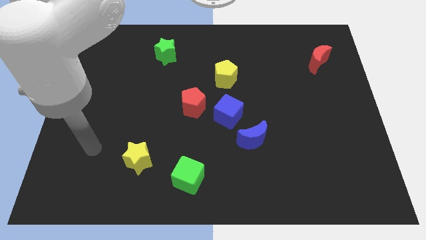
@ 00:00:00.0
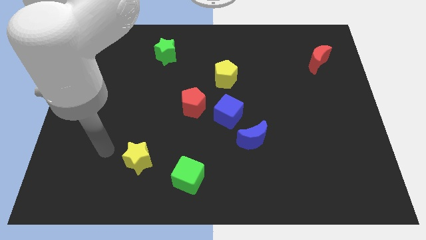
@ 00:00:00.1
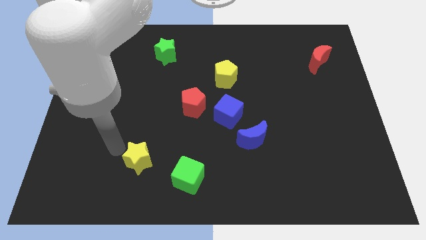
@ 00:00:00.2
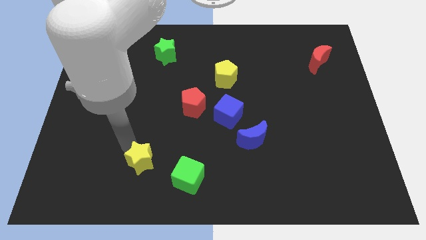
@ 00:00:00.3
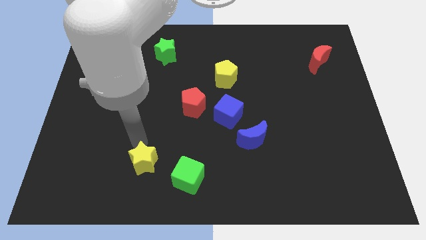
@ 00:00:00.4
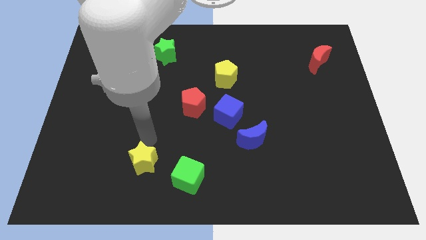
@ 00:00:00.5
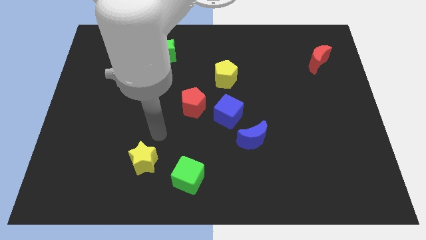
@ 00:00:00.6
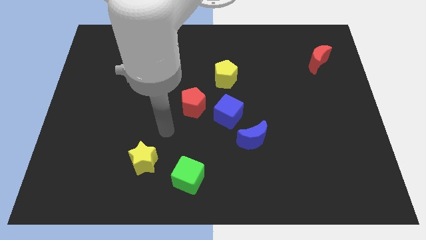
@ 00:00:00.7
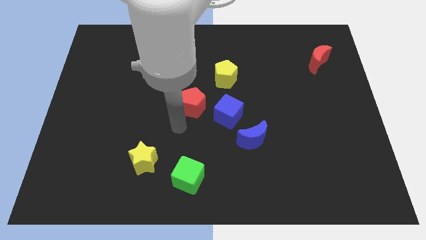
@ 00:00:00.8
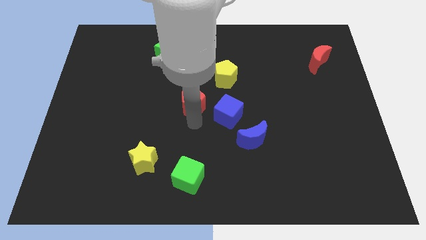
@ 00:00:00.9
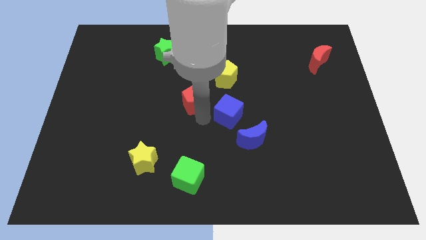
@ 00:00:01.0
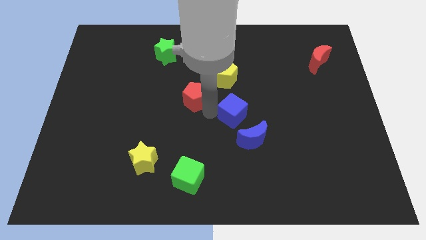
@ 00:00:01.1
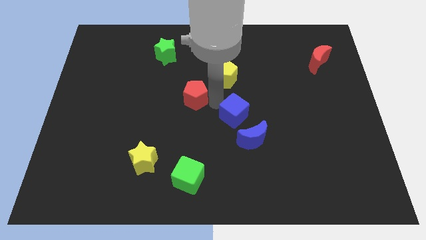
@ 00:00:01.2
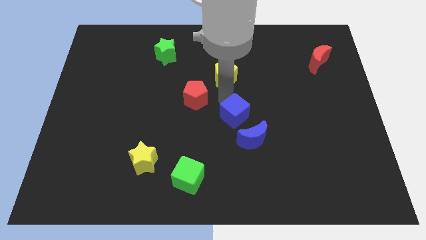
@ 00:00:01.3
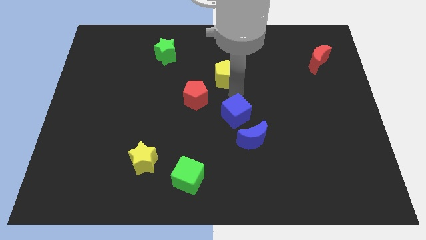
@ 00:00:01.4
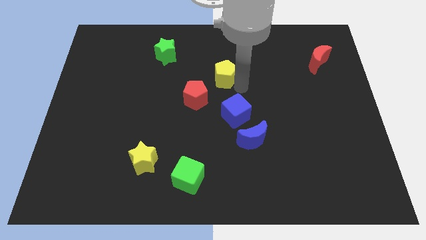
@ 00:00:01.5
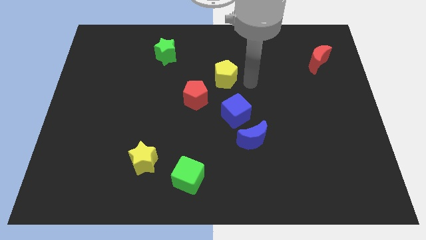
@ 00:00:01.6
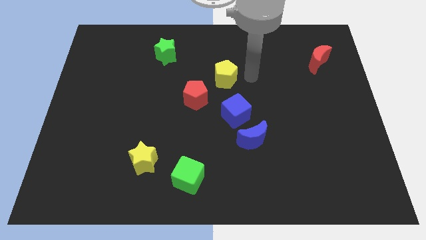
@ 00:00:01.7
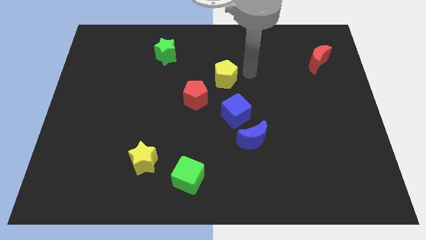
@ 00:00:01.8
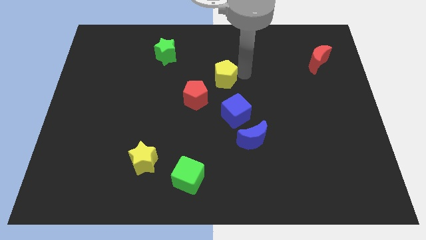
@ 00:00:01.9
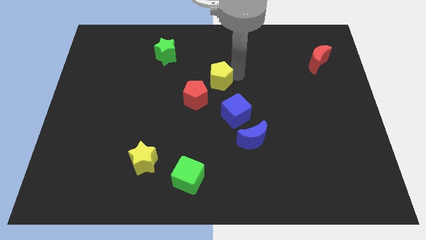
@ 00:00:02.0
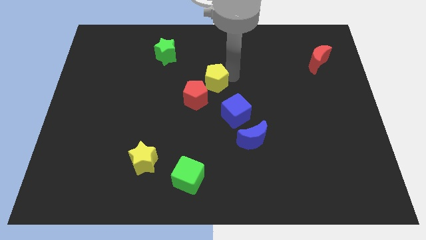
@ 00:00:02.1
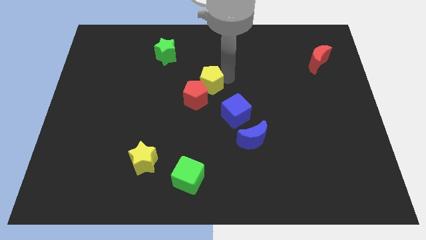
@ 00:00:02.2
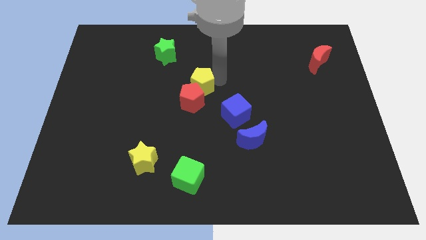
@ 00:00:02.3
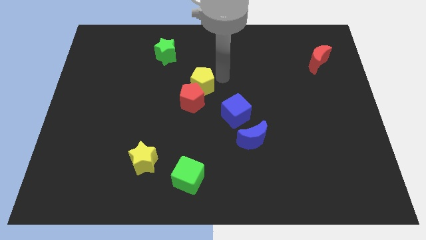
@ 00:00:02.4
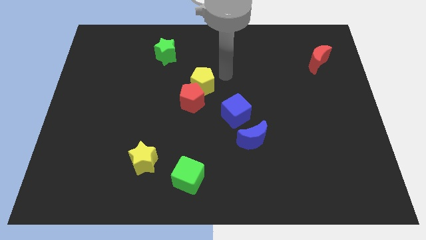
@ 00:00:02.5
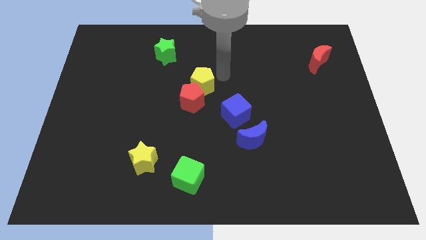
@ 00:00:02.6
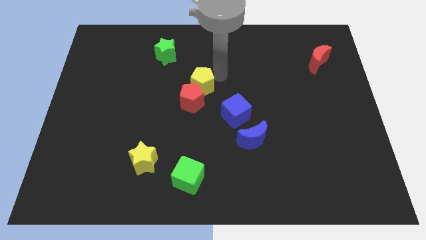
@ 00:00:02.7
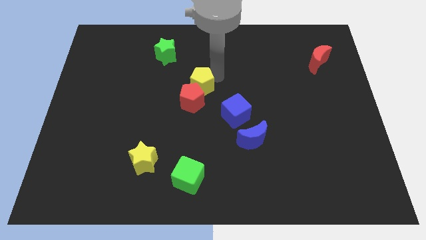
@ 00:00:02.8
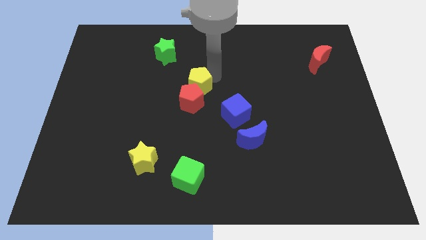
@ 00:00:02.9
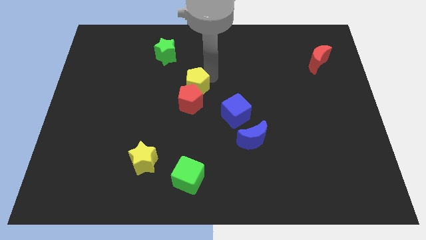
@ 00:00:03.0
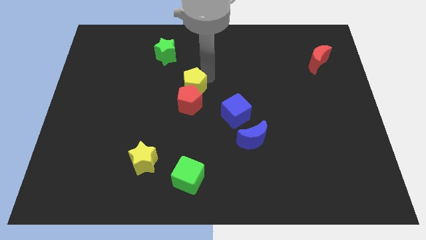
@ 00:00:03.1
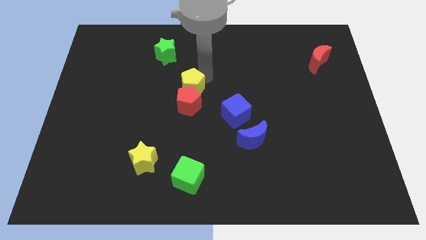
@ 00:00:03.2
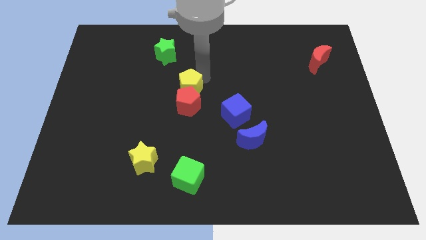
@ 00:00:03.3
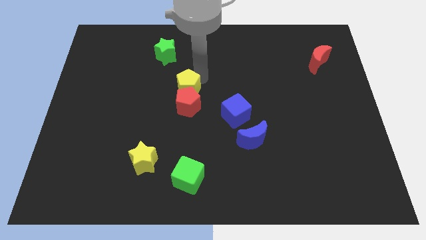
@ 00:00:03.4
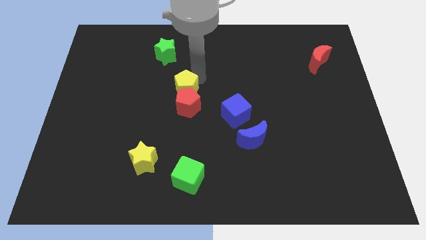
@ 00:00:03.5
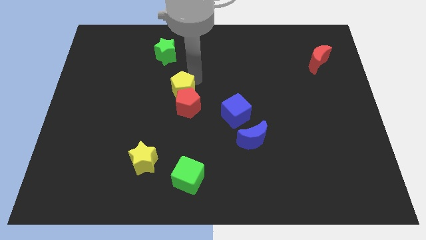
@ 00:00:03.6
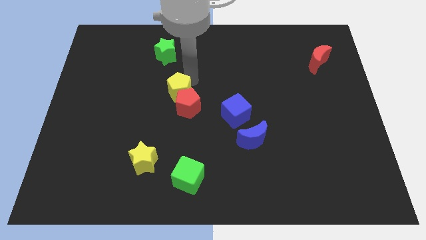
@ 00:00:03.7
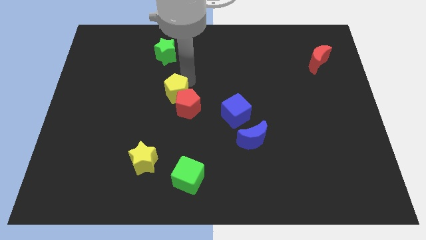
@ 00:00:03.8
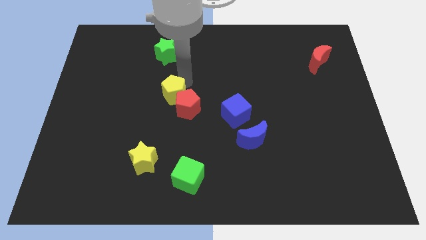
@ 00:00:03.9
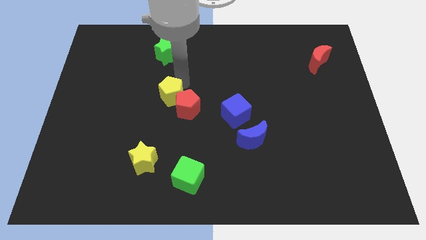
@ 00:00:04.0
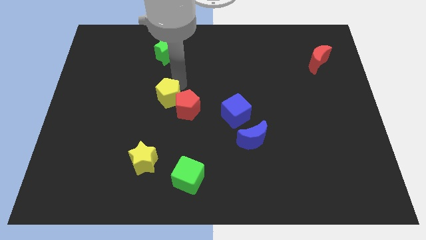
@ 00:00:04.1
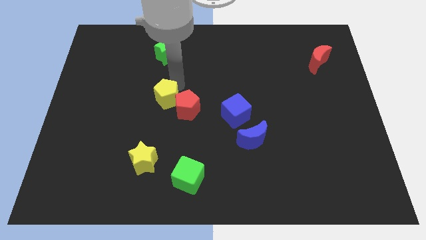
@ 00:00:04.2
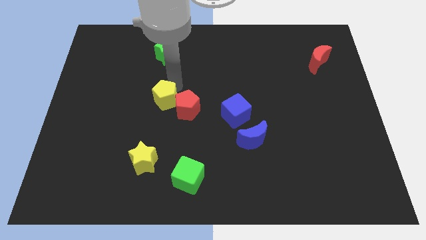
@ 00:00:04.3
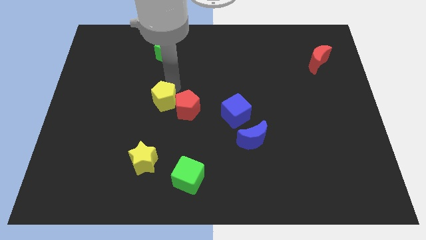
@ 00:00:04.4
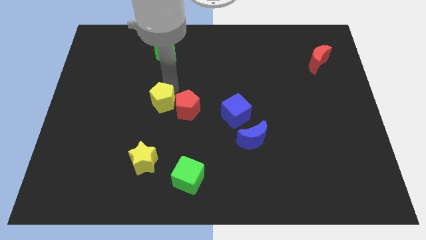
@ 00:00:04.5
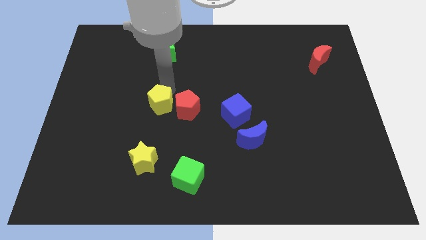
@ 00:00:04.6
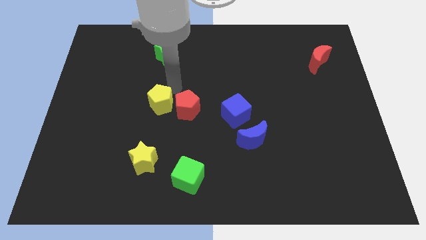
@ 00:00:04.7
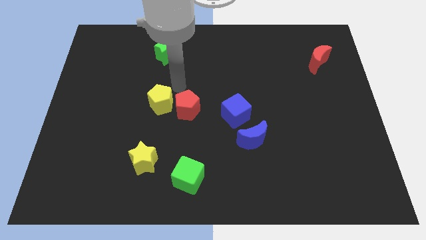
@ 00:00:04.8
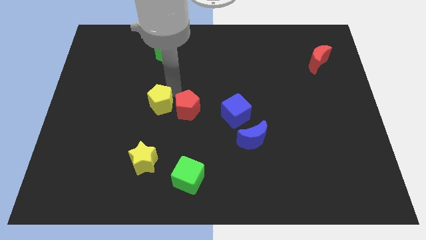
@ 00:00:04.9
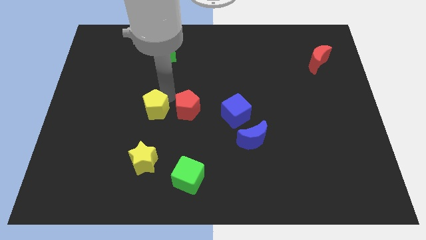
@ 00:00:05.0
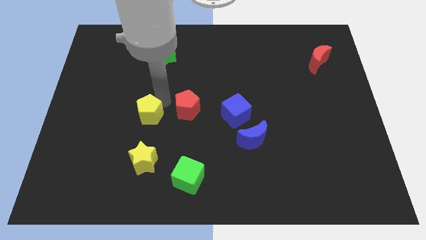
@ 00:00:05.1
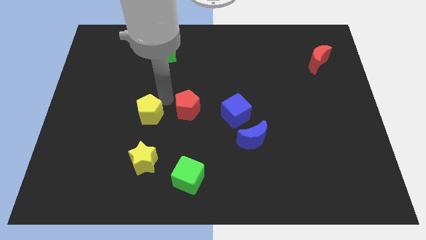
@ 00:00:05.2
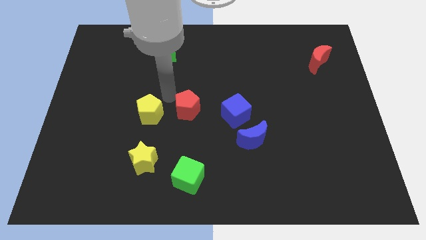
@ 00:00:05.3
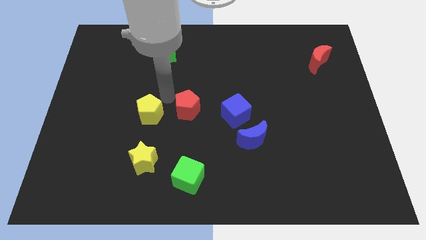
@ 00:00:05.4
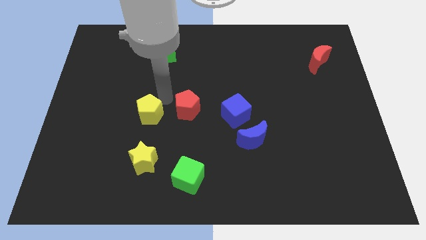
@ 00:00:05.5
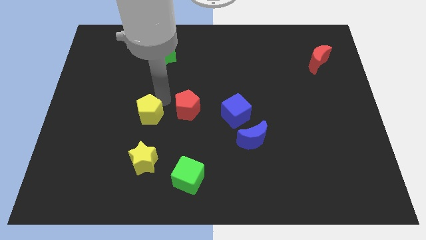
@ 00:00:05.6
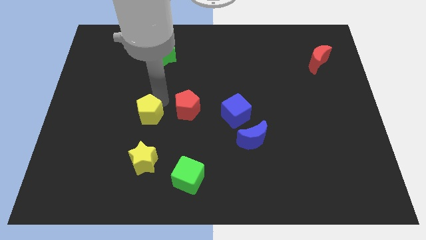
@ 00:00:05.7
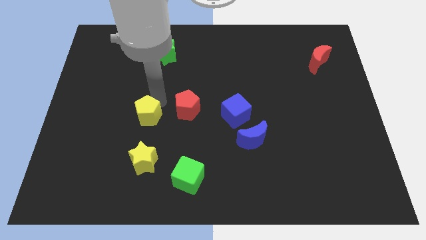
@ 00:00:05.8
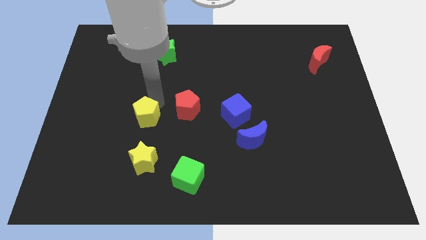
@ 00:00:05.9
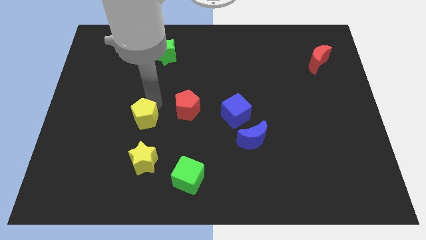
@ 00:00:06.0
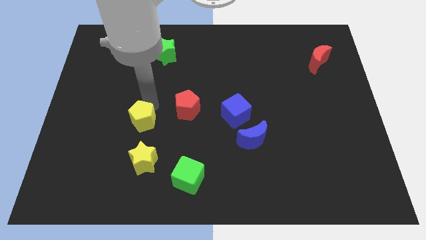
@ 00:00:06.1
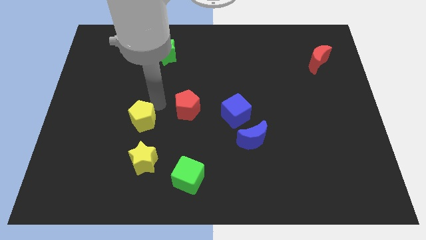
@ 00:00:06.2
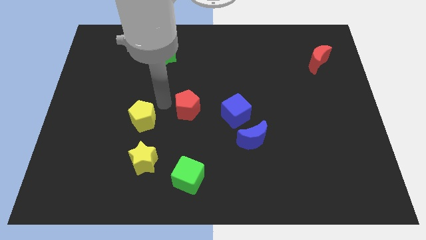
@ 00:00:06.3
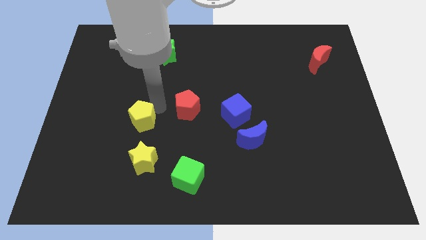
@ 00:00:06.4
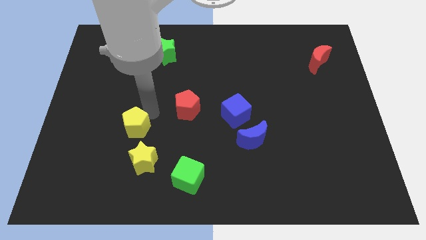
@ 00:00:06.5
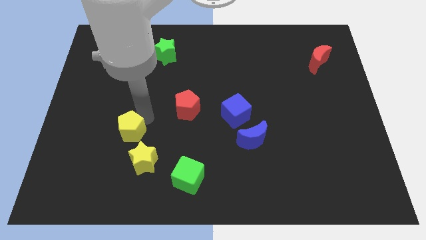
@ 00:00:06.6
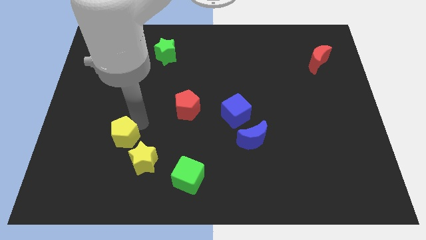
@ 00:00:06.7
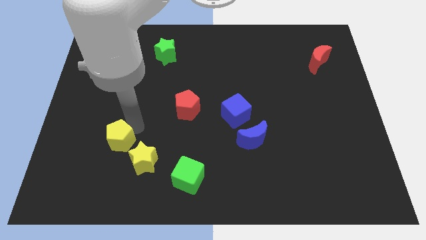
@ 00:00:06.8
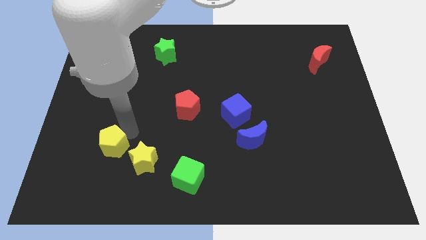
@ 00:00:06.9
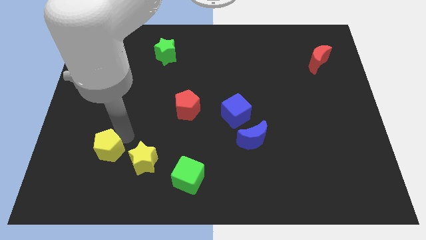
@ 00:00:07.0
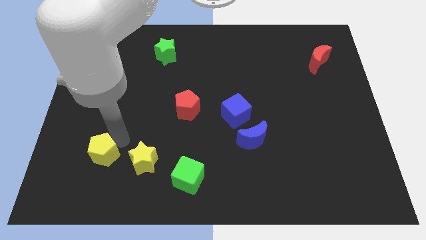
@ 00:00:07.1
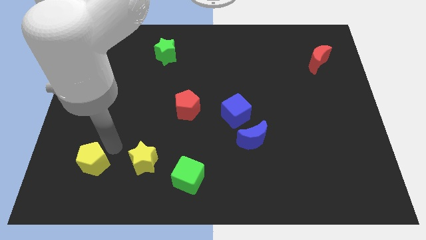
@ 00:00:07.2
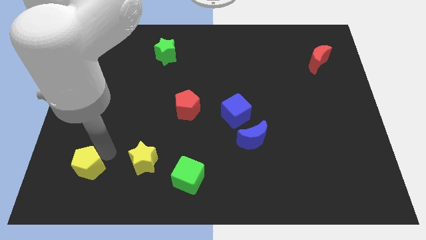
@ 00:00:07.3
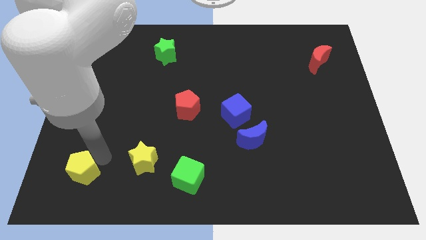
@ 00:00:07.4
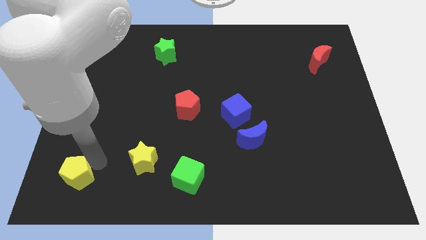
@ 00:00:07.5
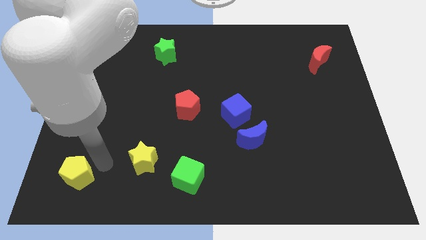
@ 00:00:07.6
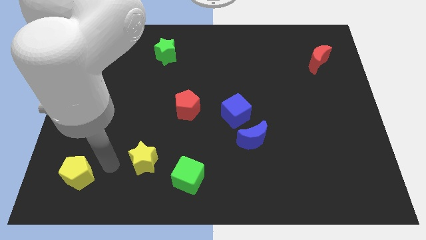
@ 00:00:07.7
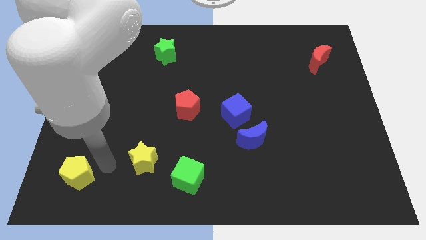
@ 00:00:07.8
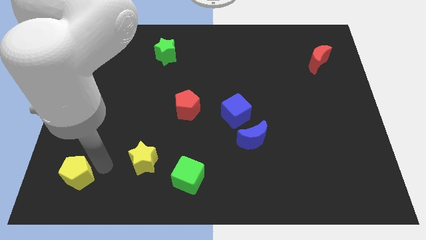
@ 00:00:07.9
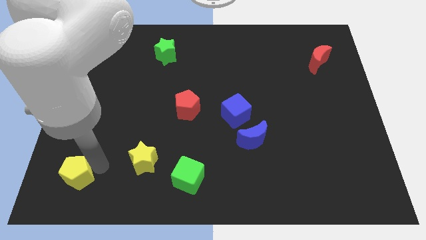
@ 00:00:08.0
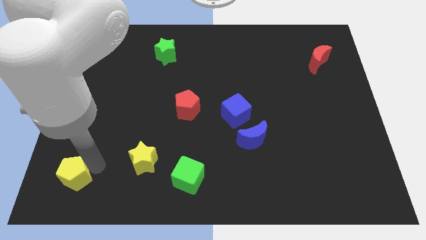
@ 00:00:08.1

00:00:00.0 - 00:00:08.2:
put the yellow pentagon to the bottom left
